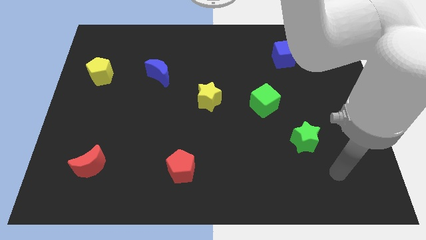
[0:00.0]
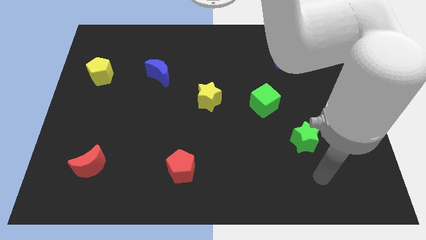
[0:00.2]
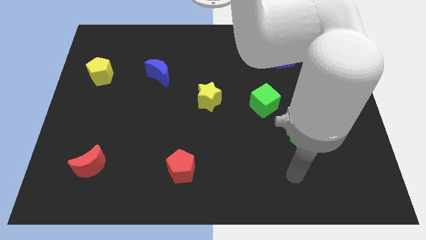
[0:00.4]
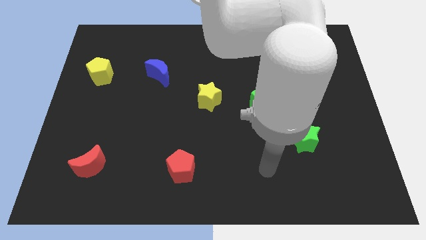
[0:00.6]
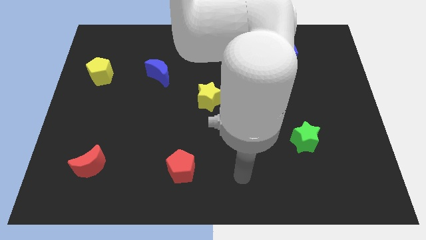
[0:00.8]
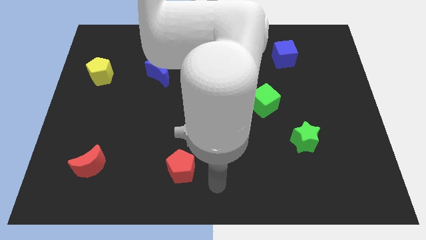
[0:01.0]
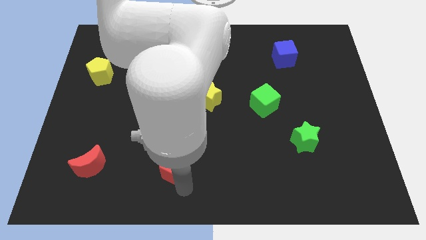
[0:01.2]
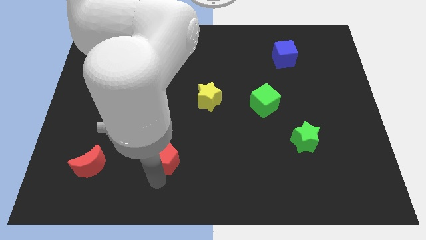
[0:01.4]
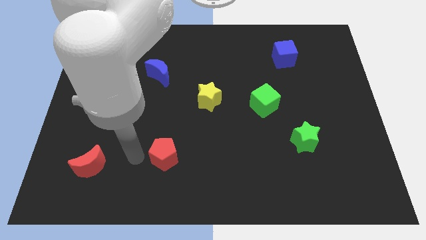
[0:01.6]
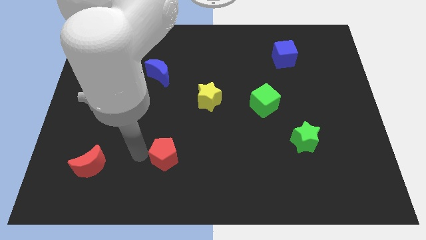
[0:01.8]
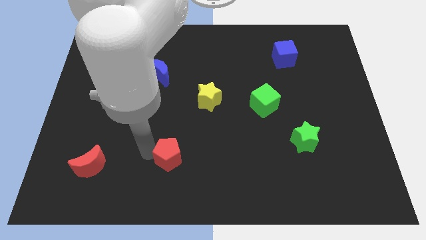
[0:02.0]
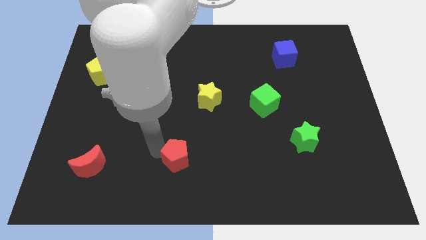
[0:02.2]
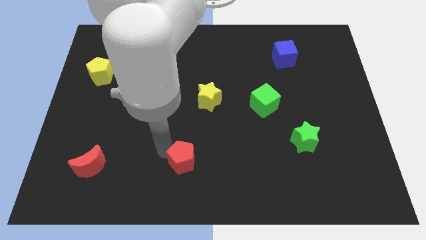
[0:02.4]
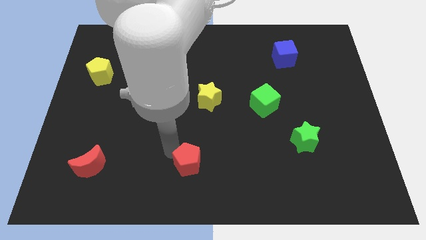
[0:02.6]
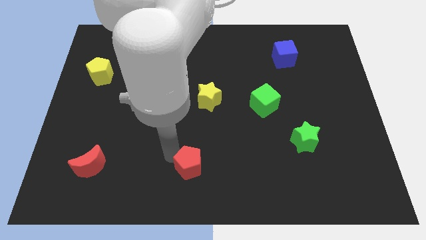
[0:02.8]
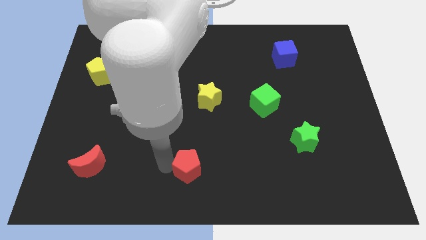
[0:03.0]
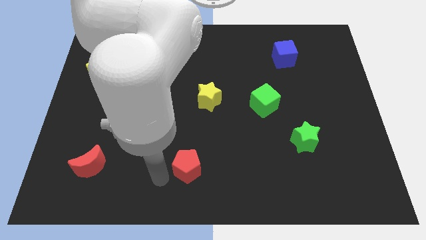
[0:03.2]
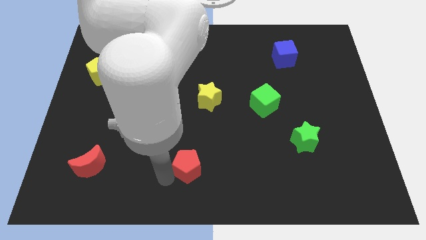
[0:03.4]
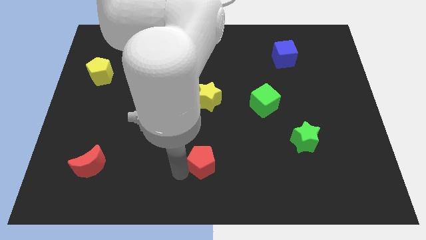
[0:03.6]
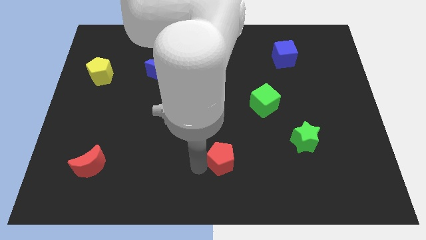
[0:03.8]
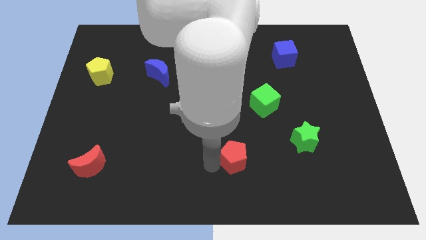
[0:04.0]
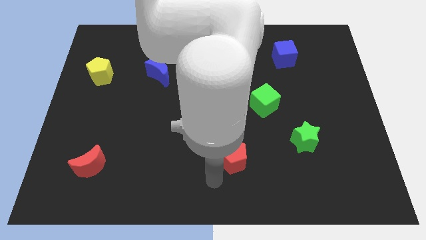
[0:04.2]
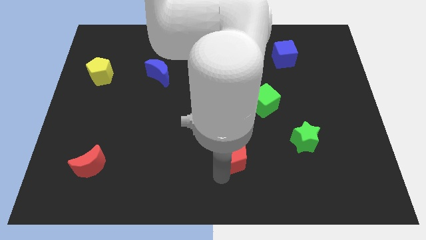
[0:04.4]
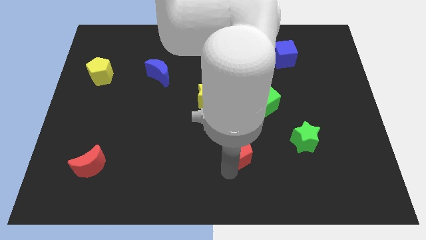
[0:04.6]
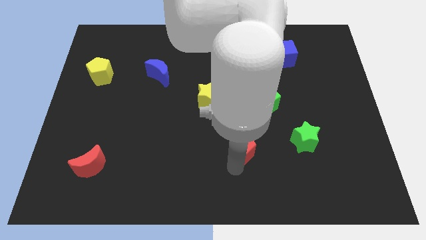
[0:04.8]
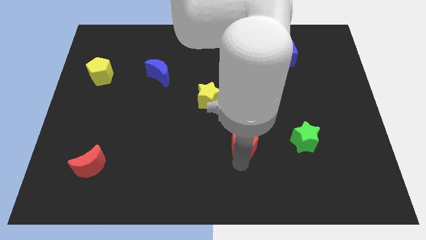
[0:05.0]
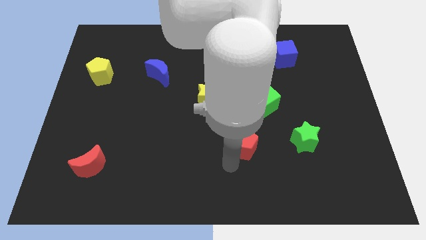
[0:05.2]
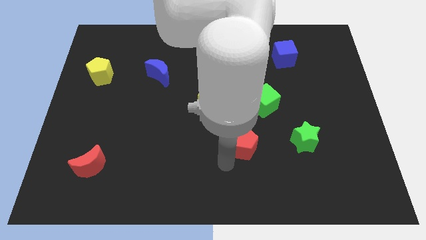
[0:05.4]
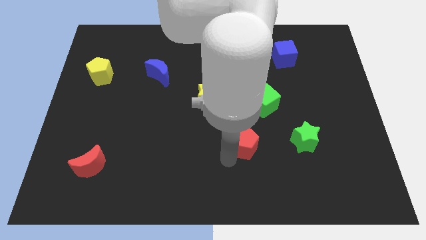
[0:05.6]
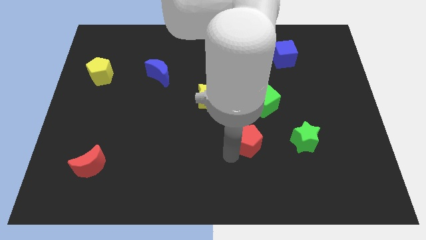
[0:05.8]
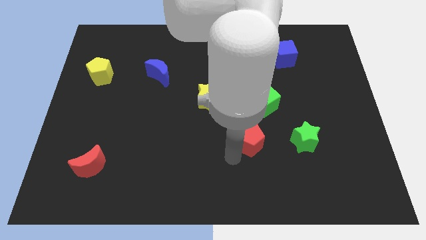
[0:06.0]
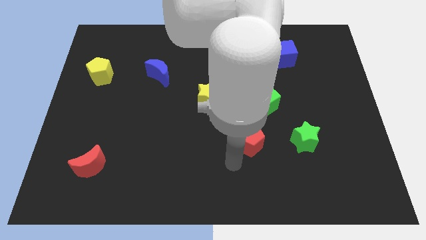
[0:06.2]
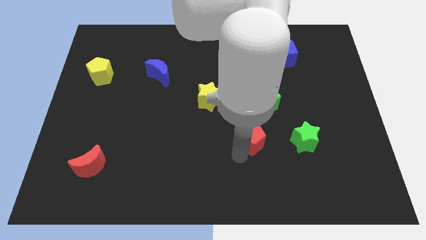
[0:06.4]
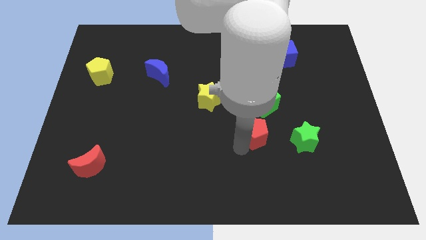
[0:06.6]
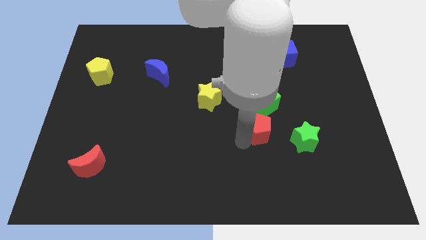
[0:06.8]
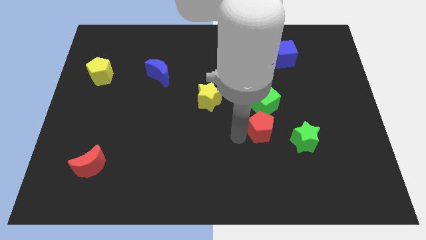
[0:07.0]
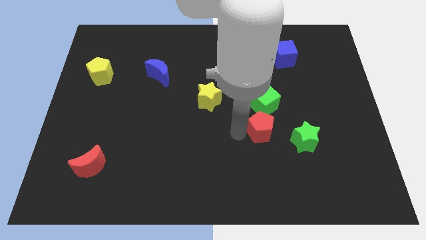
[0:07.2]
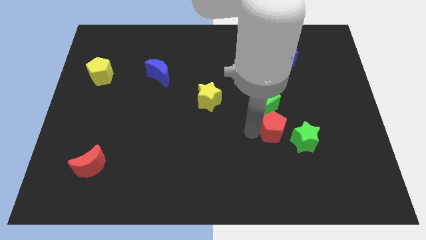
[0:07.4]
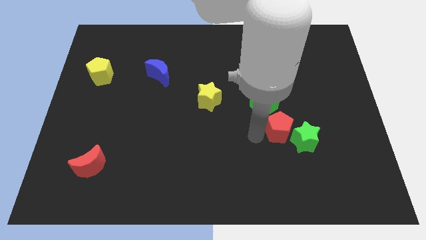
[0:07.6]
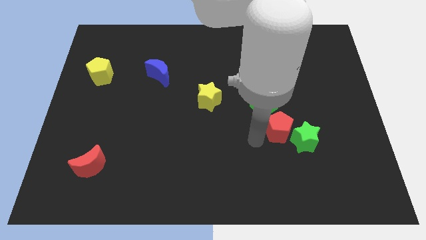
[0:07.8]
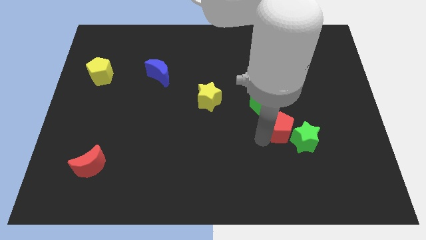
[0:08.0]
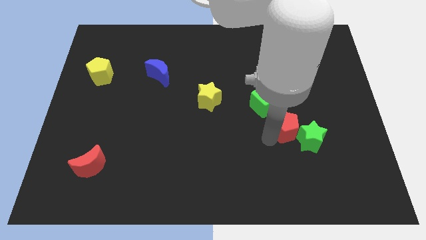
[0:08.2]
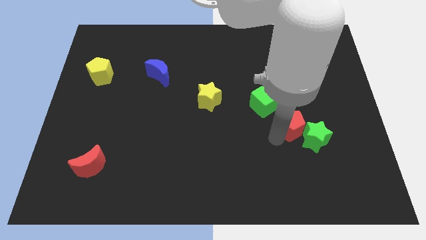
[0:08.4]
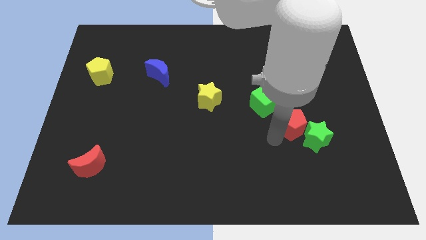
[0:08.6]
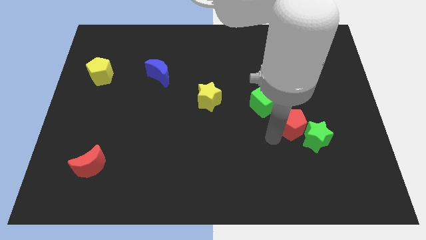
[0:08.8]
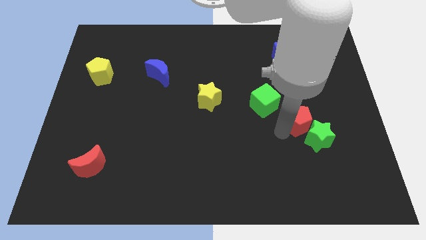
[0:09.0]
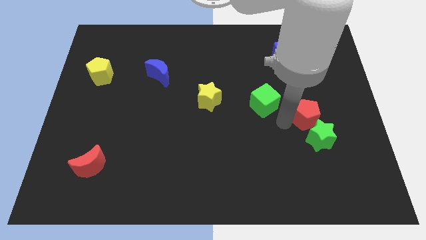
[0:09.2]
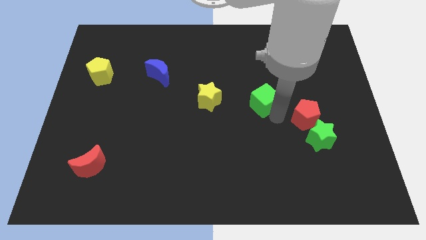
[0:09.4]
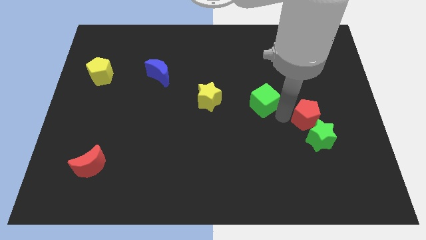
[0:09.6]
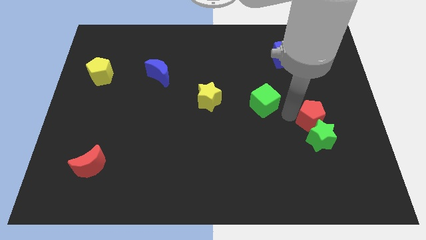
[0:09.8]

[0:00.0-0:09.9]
slide the red pentagon diagonally up and to the right of the green star

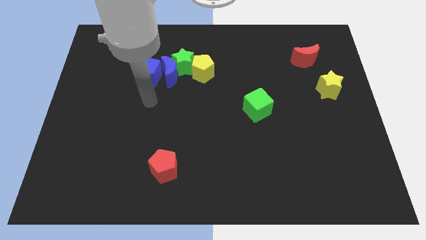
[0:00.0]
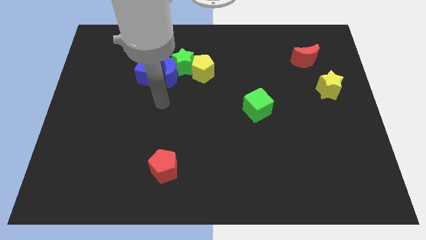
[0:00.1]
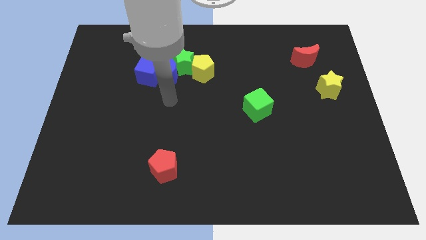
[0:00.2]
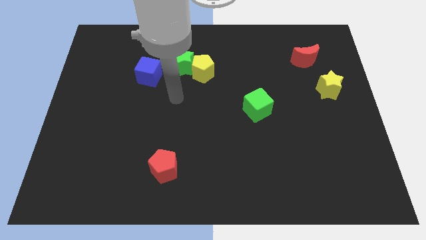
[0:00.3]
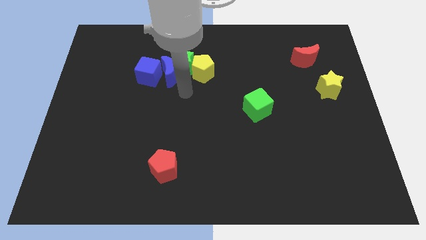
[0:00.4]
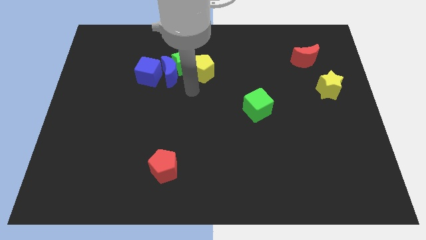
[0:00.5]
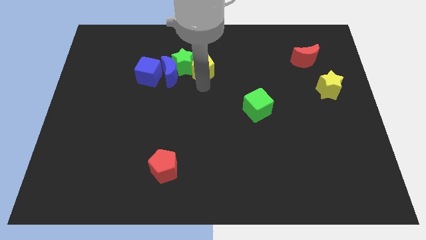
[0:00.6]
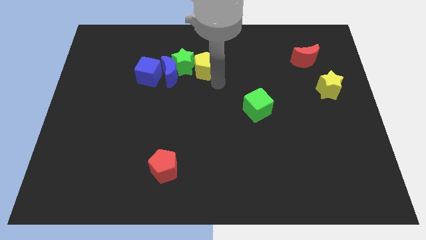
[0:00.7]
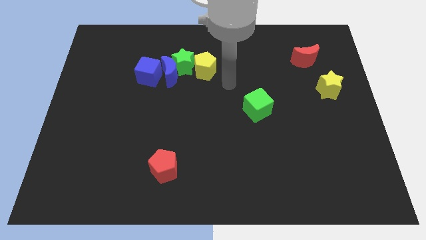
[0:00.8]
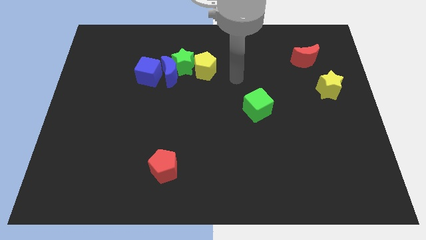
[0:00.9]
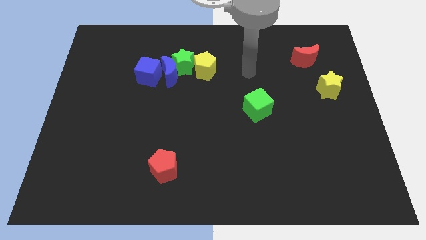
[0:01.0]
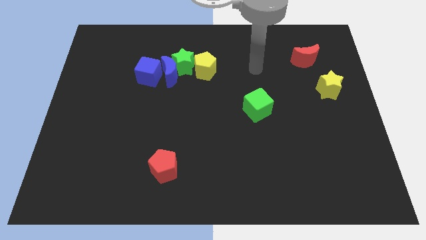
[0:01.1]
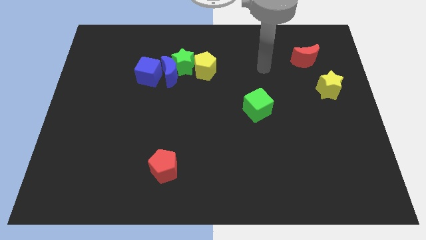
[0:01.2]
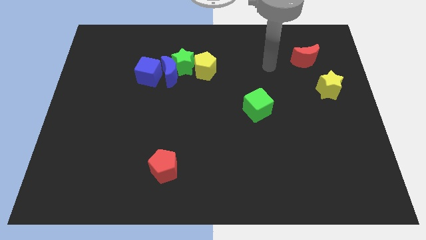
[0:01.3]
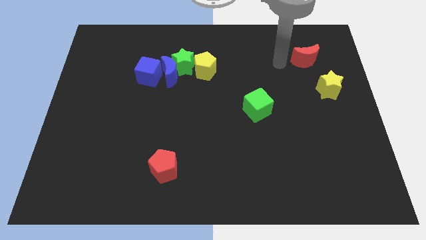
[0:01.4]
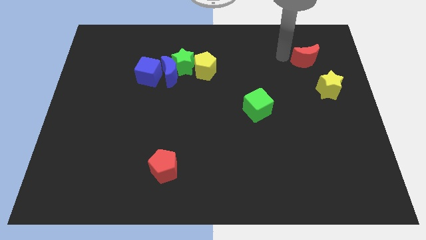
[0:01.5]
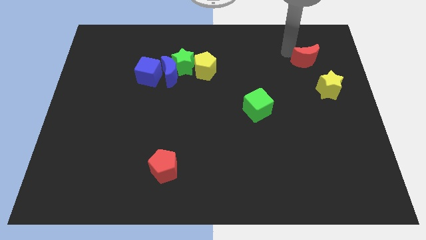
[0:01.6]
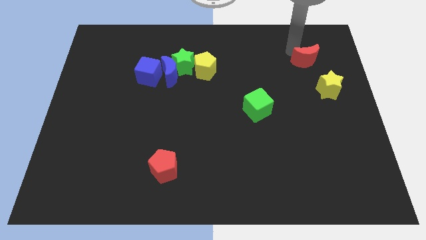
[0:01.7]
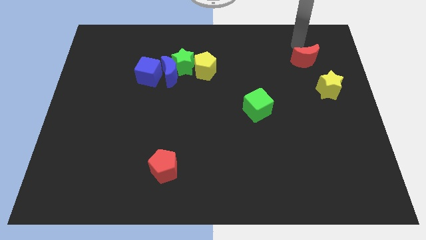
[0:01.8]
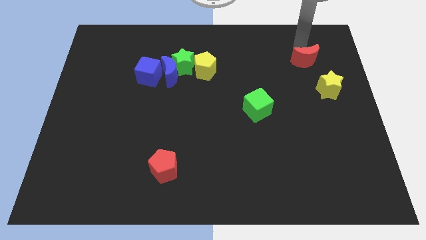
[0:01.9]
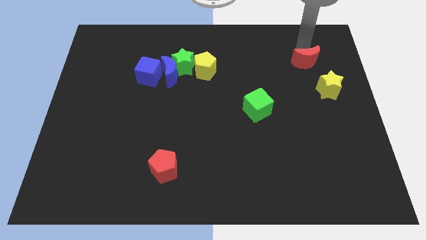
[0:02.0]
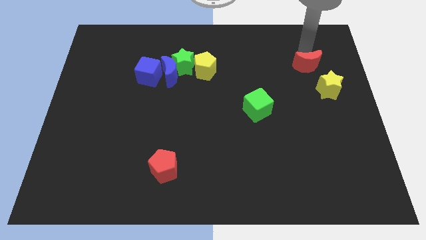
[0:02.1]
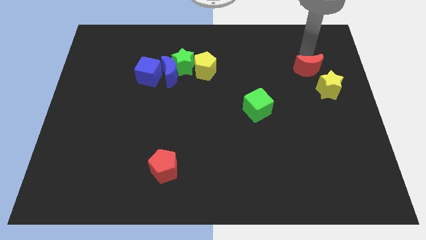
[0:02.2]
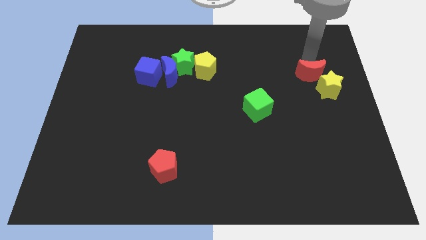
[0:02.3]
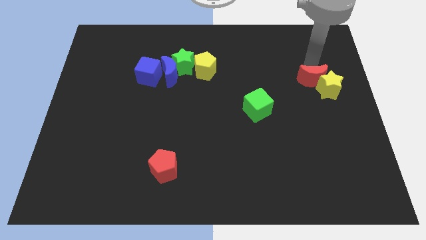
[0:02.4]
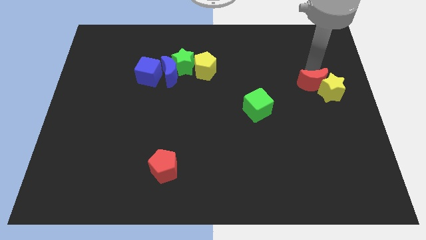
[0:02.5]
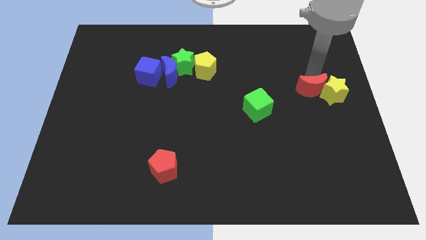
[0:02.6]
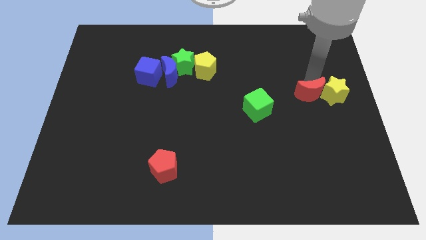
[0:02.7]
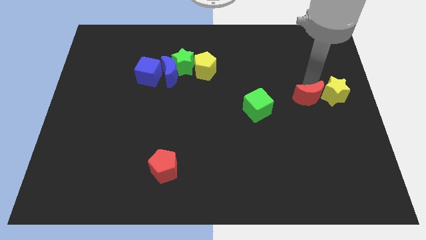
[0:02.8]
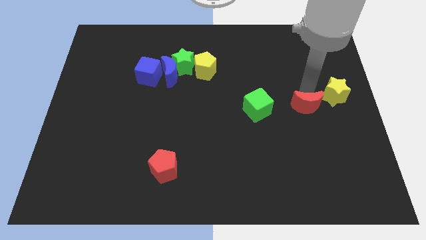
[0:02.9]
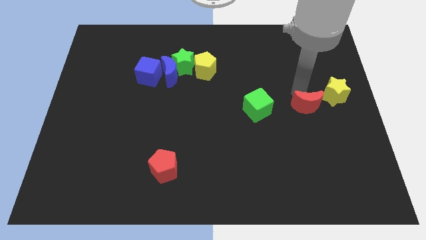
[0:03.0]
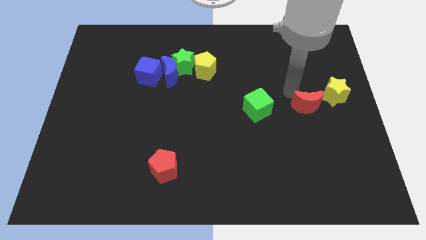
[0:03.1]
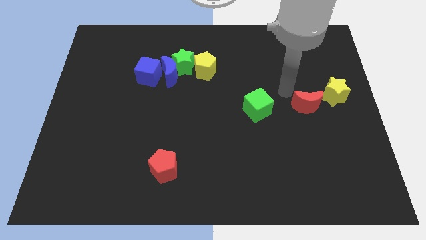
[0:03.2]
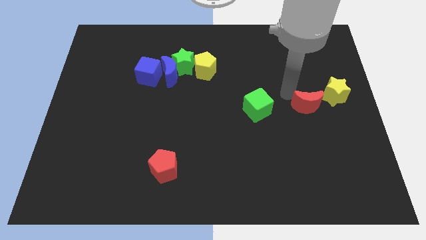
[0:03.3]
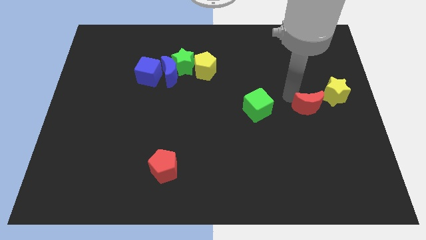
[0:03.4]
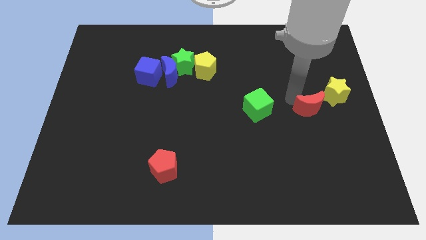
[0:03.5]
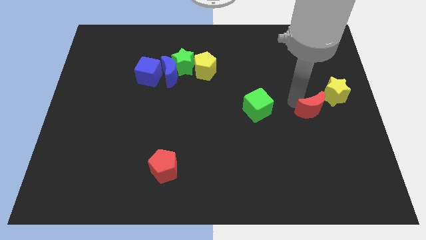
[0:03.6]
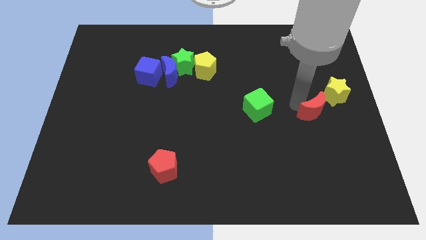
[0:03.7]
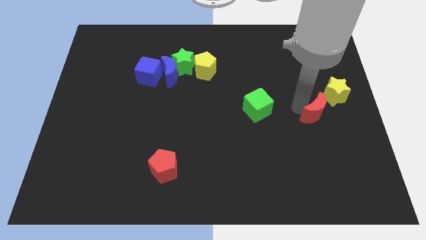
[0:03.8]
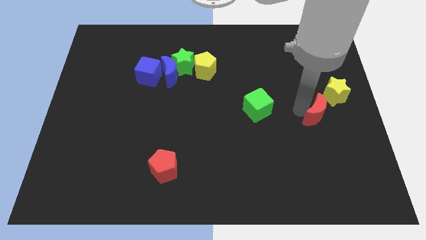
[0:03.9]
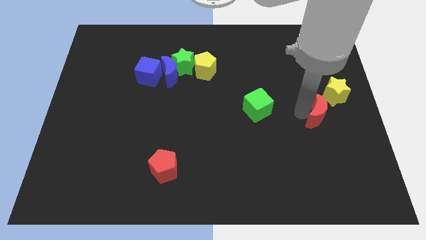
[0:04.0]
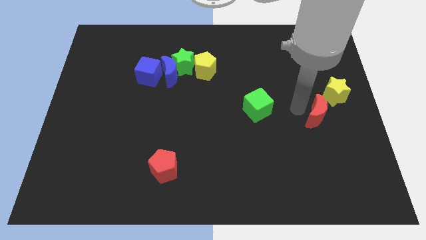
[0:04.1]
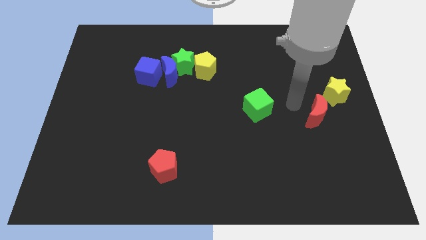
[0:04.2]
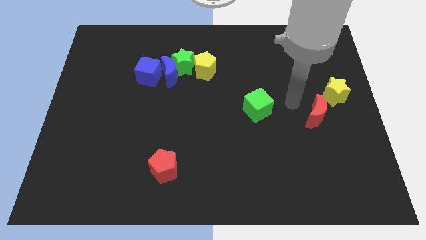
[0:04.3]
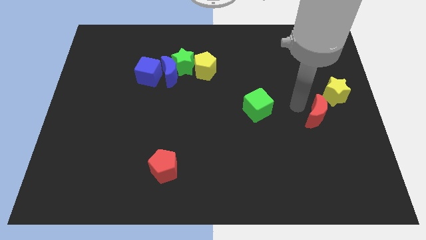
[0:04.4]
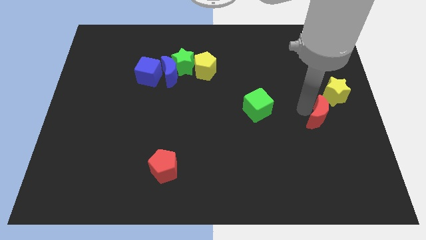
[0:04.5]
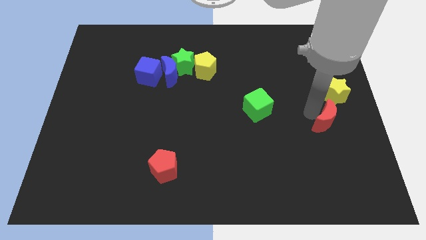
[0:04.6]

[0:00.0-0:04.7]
move the red moon to the bottom side of the yellow star
